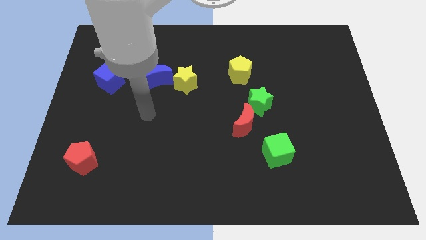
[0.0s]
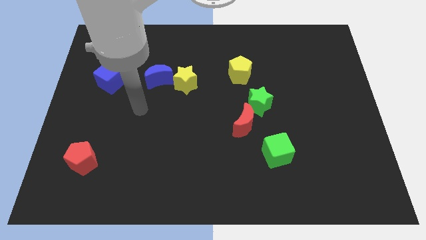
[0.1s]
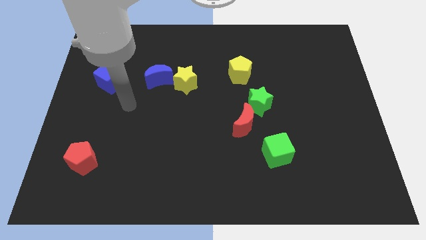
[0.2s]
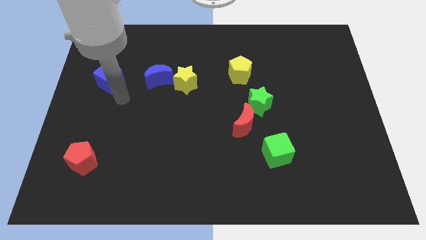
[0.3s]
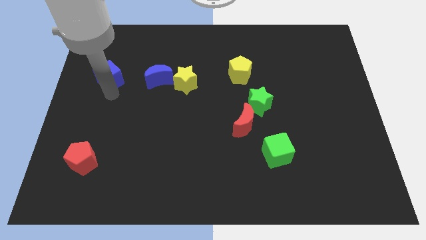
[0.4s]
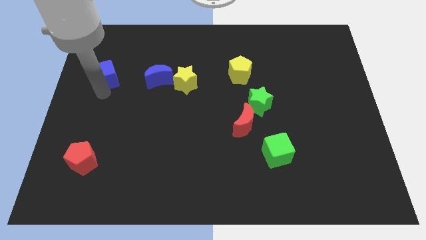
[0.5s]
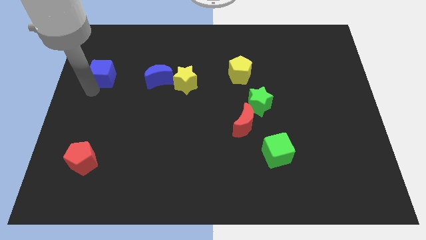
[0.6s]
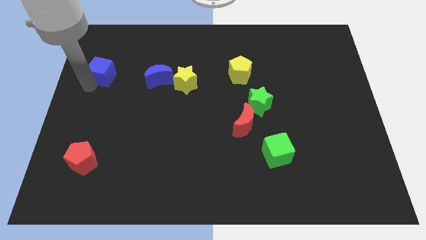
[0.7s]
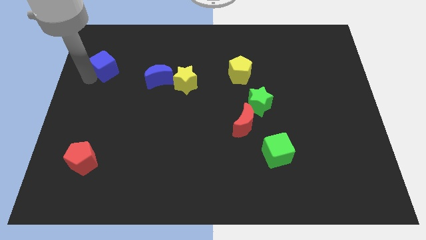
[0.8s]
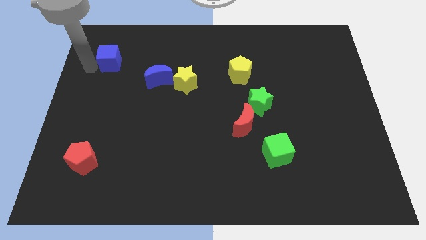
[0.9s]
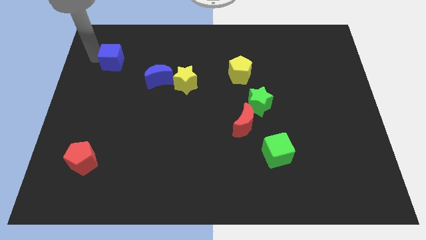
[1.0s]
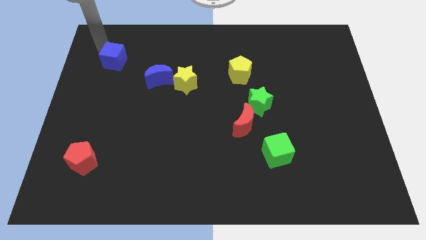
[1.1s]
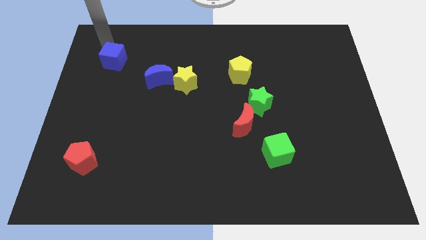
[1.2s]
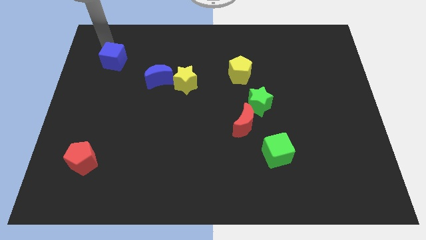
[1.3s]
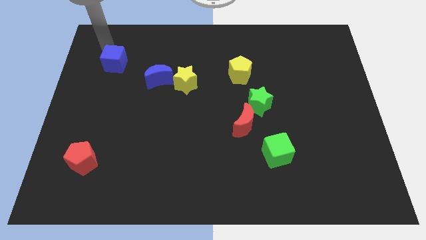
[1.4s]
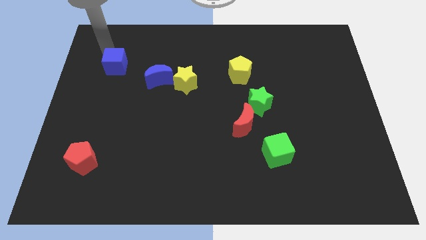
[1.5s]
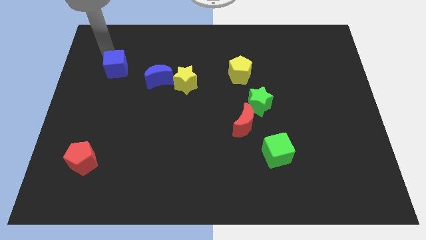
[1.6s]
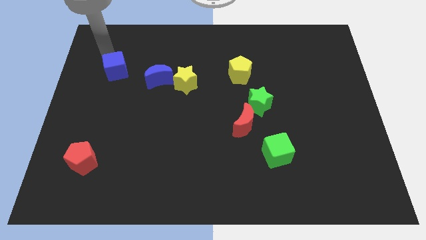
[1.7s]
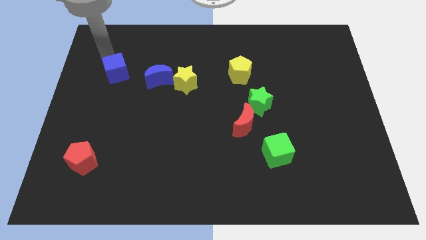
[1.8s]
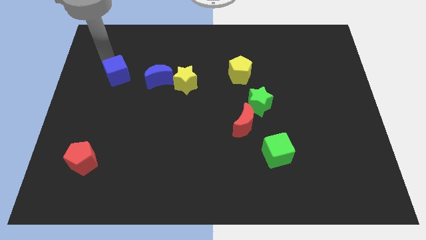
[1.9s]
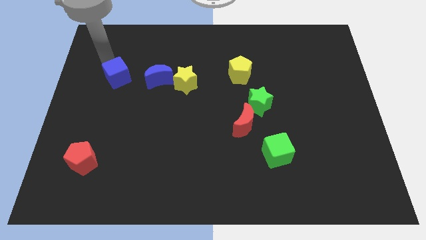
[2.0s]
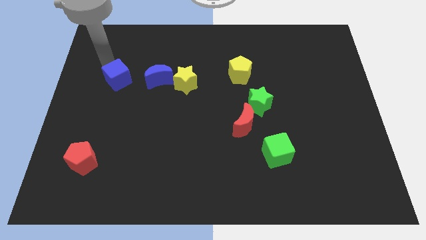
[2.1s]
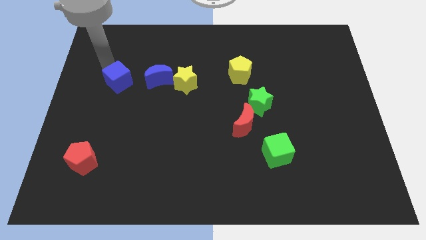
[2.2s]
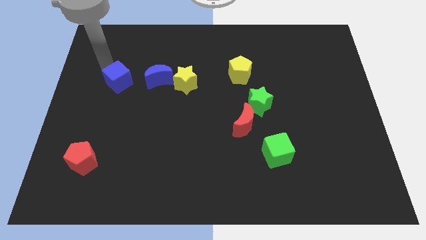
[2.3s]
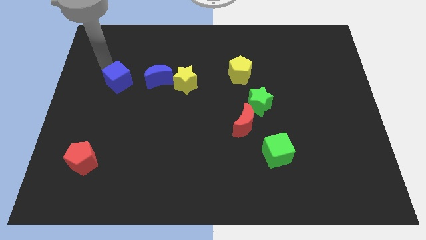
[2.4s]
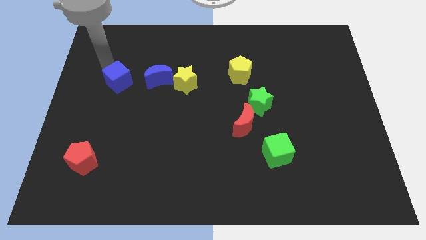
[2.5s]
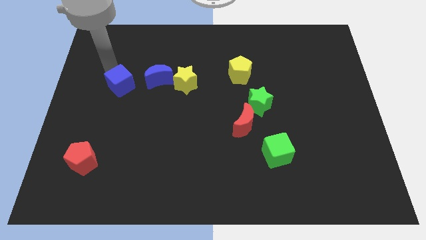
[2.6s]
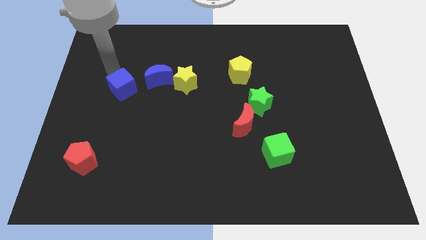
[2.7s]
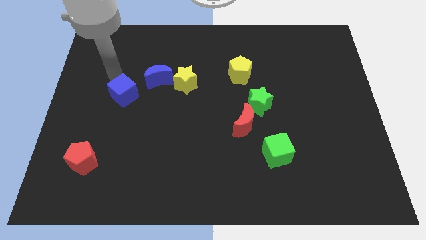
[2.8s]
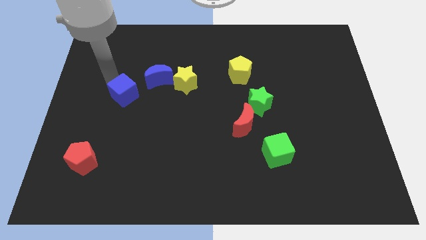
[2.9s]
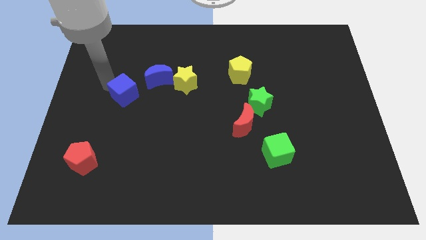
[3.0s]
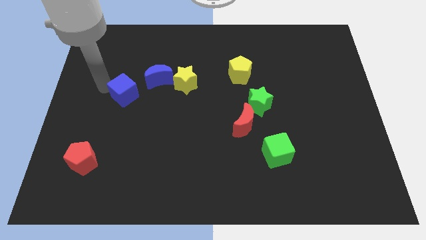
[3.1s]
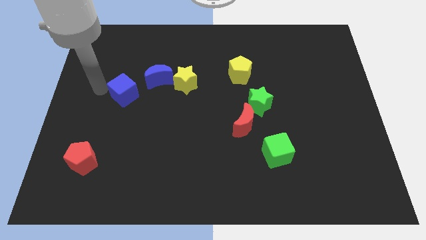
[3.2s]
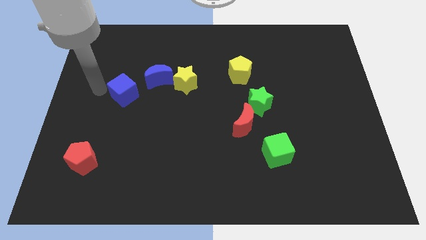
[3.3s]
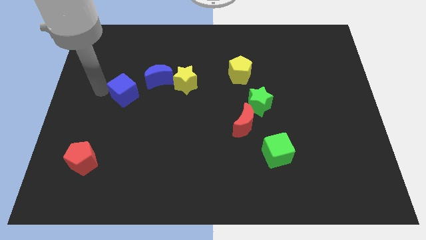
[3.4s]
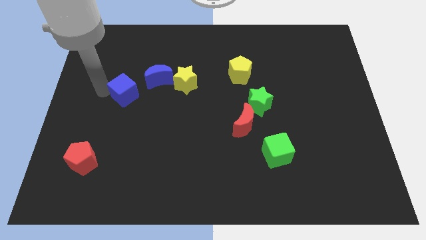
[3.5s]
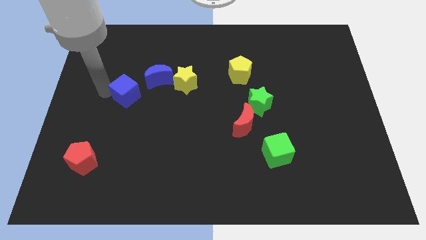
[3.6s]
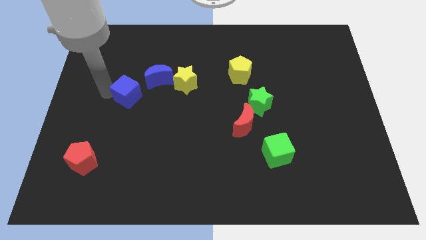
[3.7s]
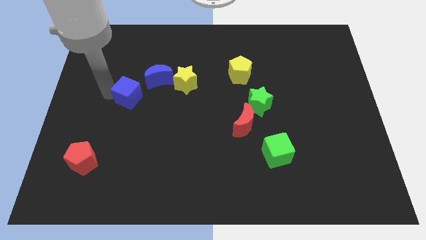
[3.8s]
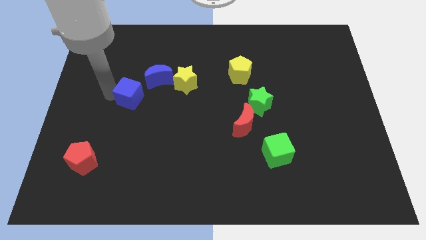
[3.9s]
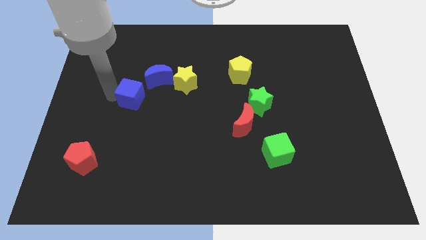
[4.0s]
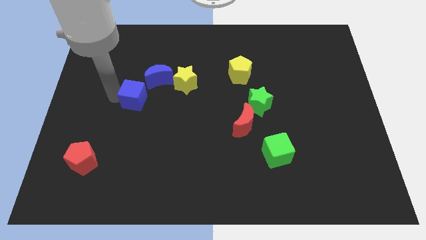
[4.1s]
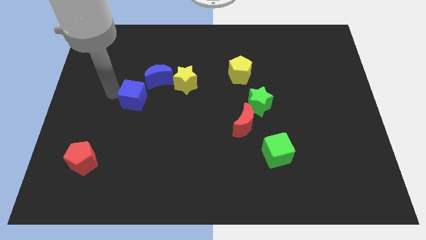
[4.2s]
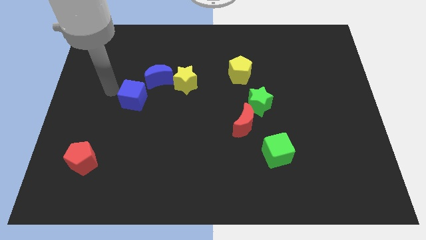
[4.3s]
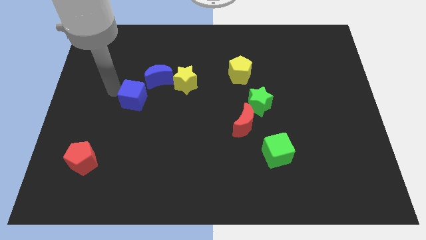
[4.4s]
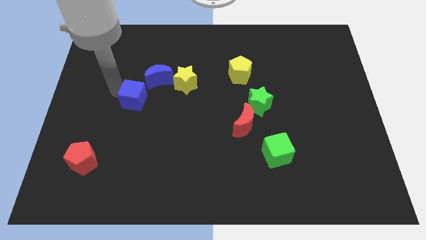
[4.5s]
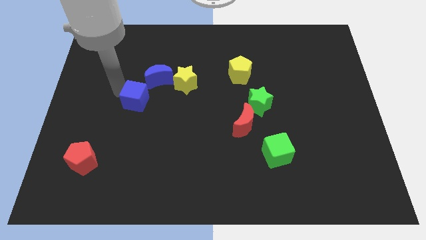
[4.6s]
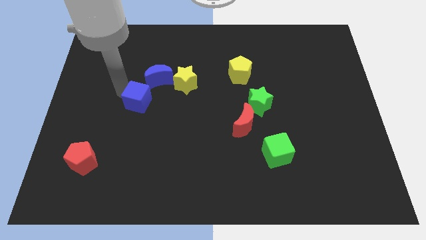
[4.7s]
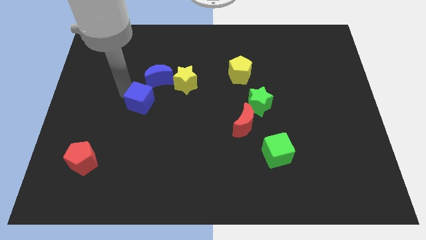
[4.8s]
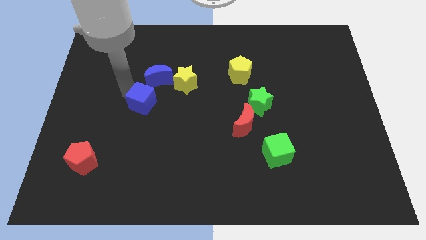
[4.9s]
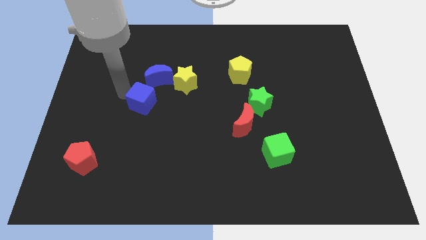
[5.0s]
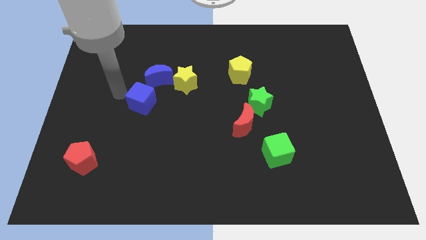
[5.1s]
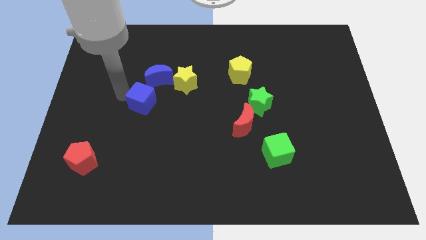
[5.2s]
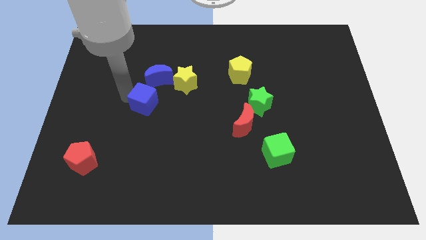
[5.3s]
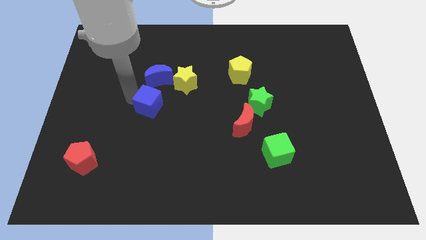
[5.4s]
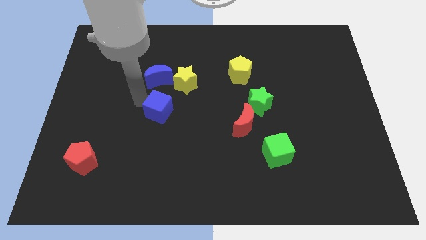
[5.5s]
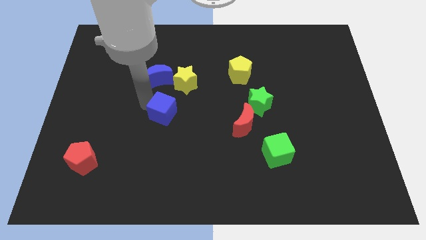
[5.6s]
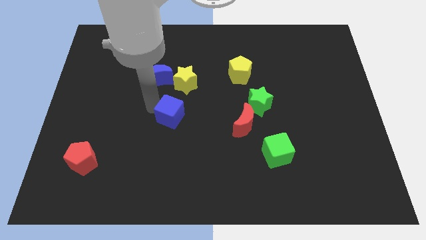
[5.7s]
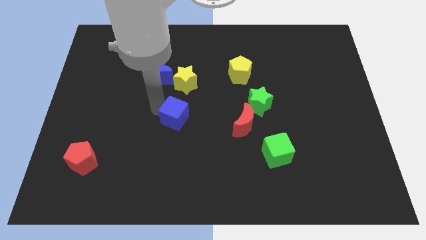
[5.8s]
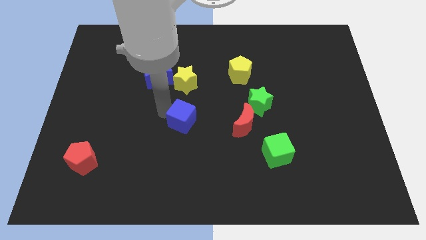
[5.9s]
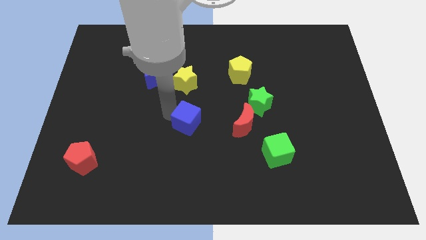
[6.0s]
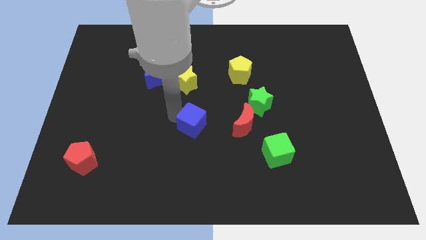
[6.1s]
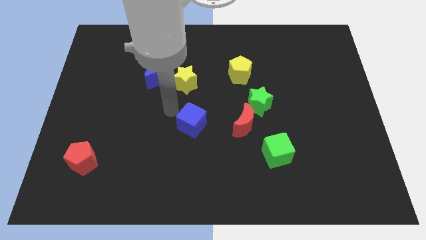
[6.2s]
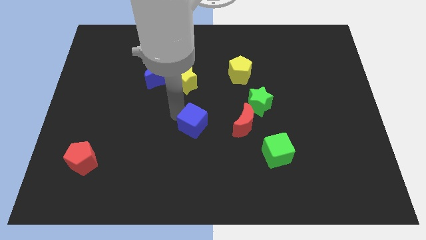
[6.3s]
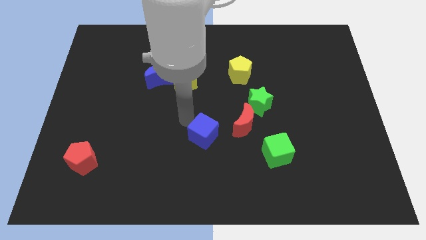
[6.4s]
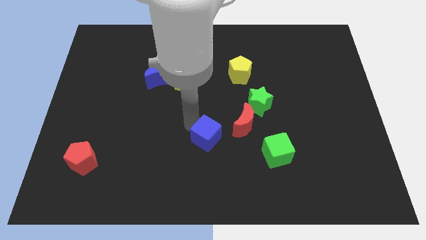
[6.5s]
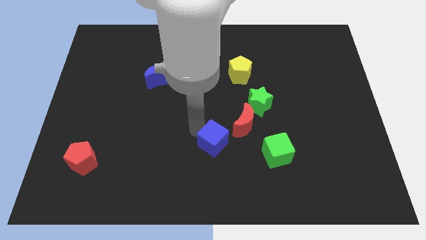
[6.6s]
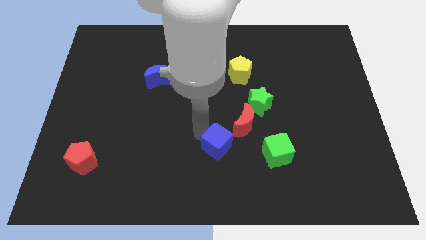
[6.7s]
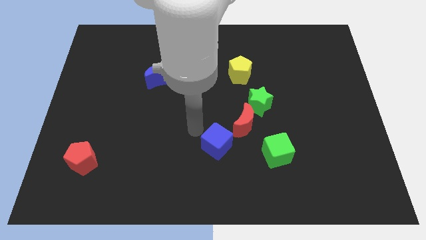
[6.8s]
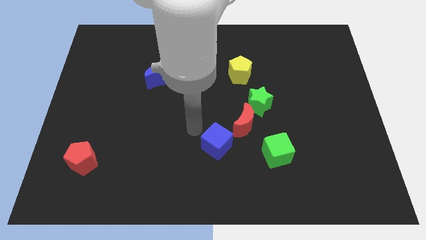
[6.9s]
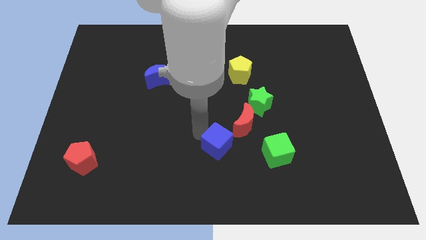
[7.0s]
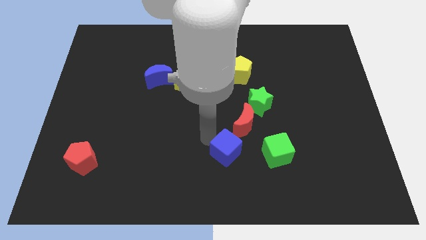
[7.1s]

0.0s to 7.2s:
push the blue cube to the bottom side of the red moon
